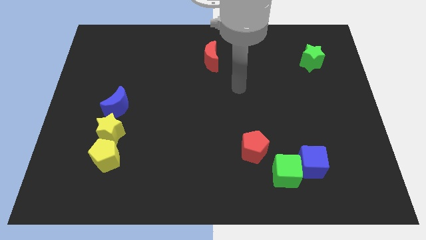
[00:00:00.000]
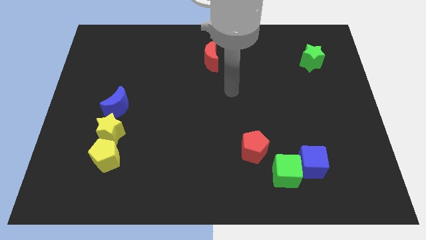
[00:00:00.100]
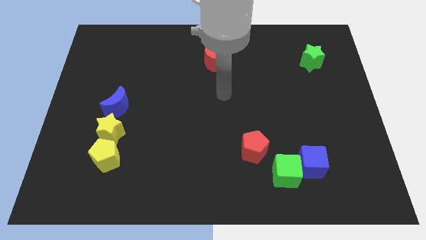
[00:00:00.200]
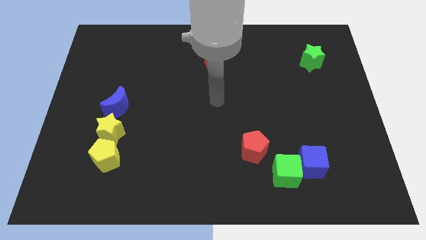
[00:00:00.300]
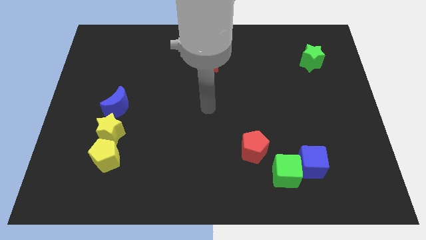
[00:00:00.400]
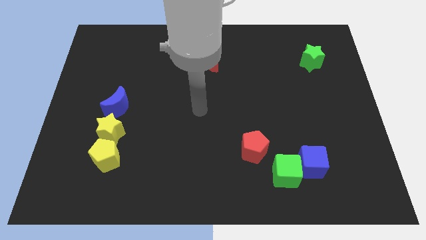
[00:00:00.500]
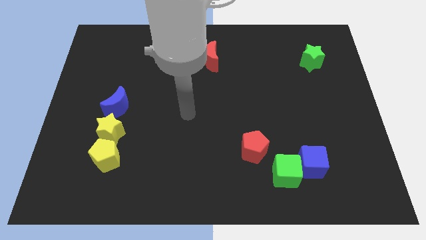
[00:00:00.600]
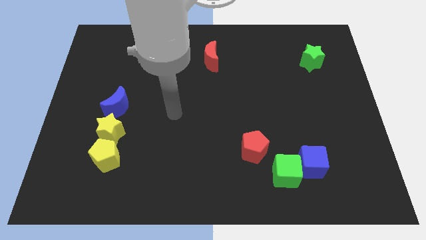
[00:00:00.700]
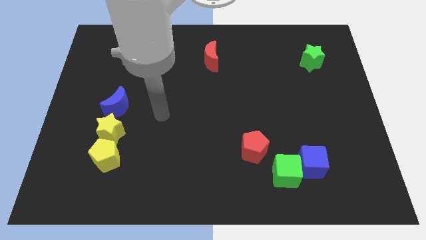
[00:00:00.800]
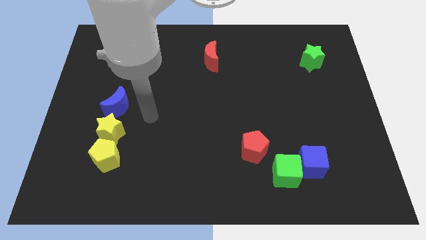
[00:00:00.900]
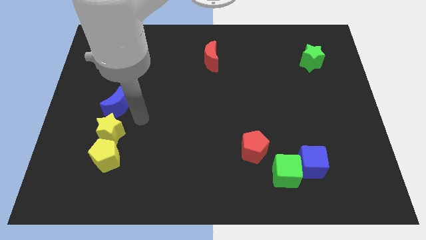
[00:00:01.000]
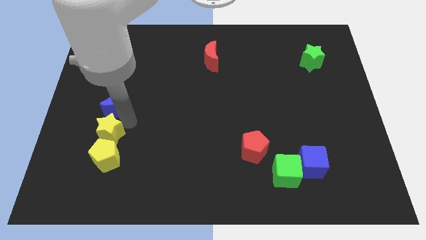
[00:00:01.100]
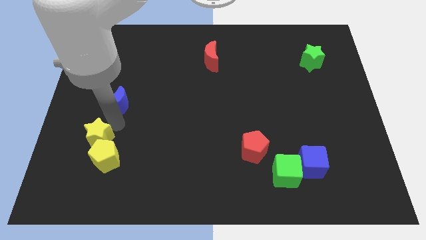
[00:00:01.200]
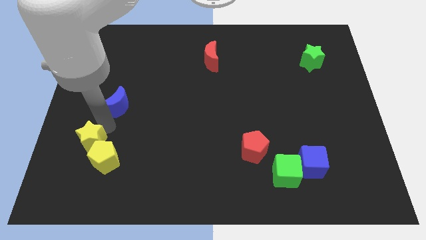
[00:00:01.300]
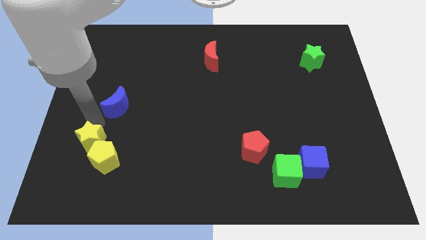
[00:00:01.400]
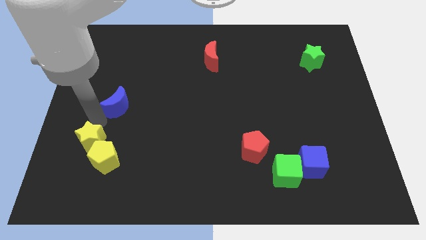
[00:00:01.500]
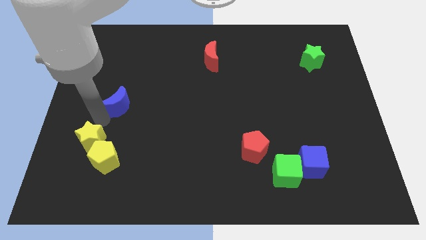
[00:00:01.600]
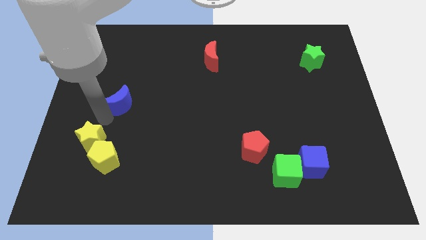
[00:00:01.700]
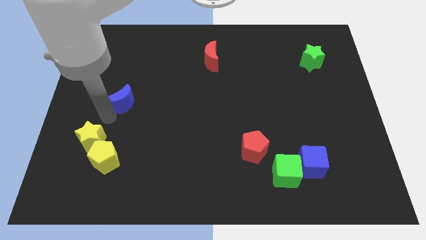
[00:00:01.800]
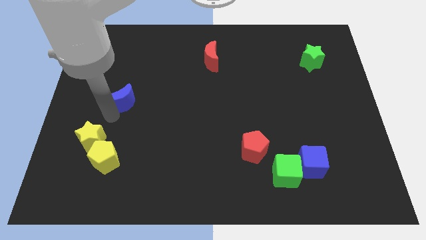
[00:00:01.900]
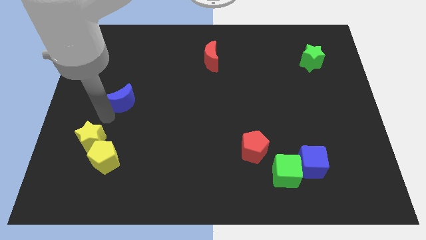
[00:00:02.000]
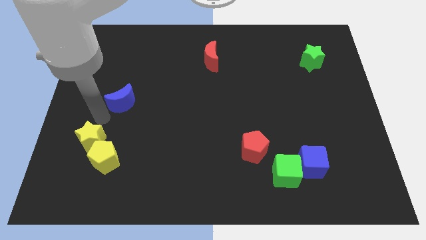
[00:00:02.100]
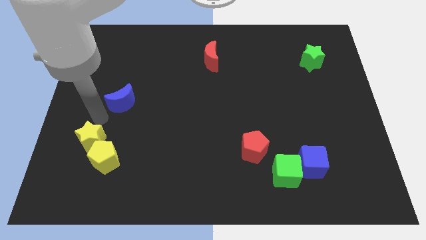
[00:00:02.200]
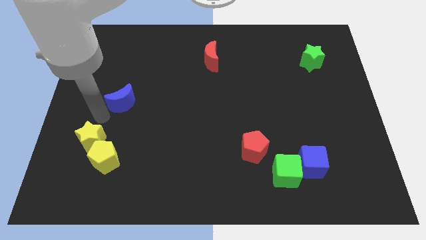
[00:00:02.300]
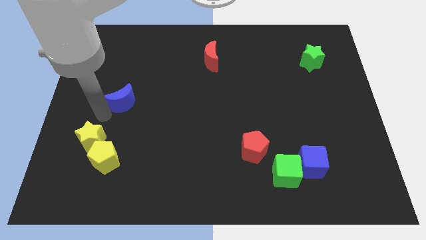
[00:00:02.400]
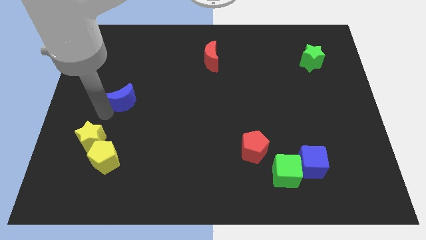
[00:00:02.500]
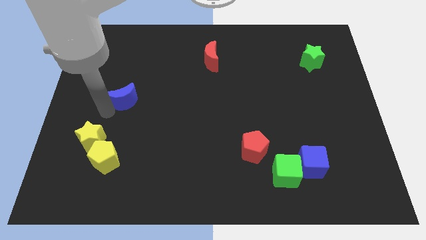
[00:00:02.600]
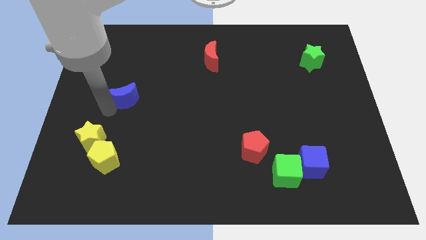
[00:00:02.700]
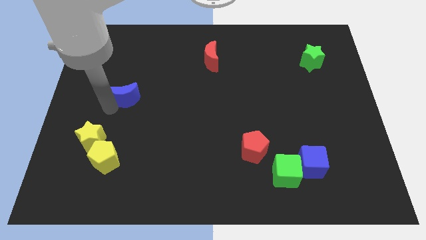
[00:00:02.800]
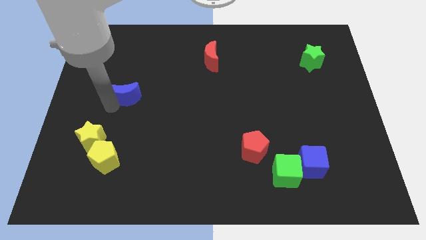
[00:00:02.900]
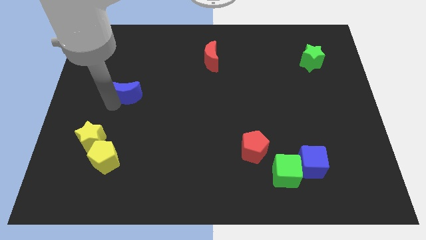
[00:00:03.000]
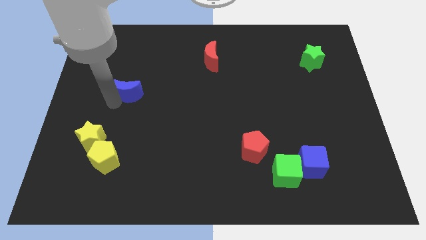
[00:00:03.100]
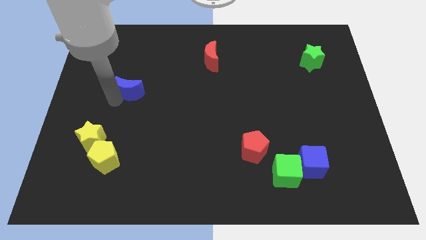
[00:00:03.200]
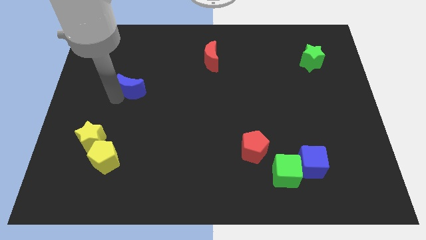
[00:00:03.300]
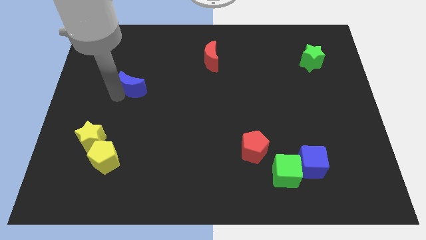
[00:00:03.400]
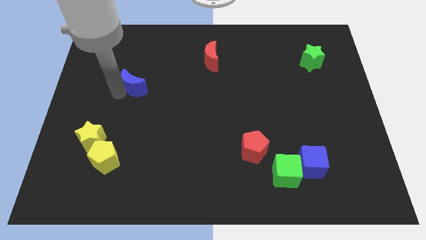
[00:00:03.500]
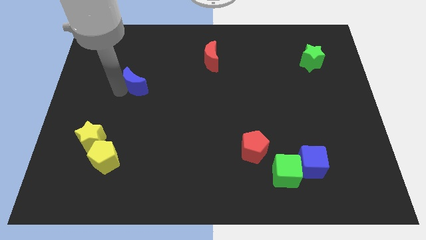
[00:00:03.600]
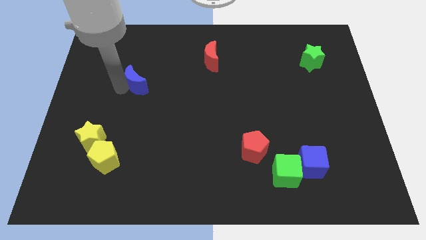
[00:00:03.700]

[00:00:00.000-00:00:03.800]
push the blue moon slightly diagonally up and right

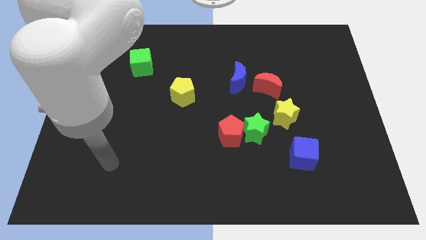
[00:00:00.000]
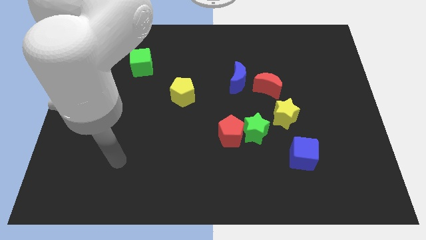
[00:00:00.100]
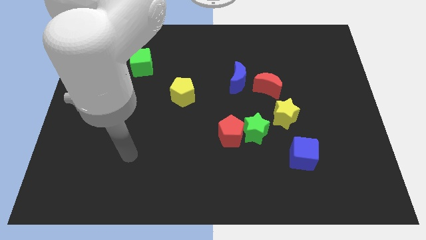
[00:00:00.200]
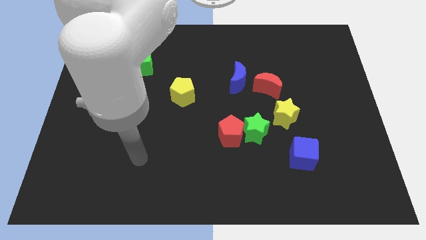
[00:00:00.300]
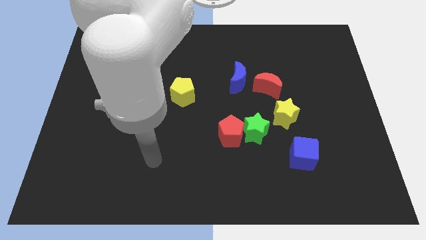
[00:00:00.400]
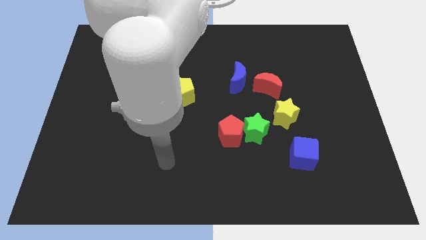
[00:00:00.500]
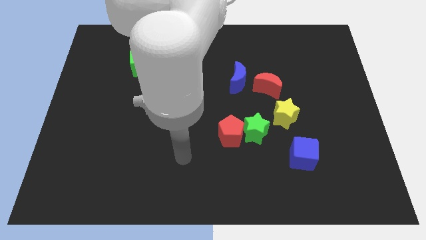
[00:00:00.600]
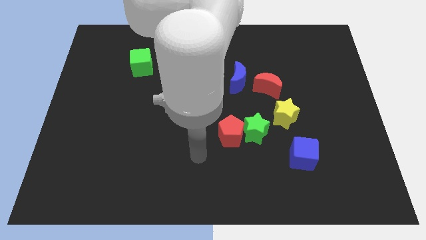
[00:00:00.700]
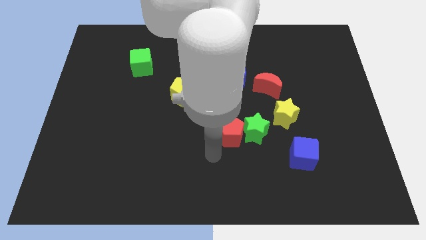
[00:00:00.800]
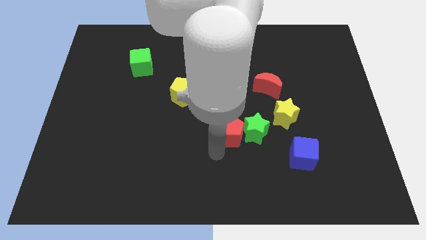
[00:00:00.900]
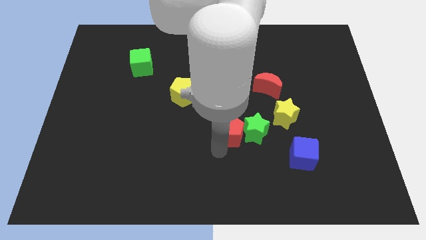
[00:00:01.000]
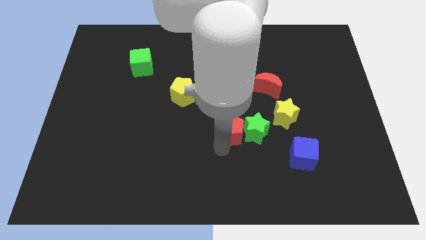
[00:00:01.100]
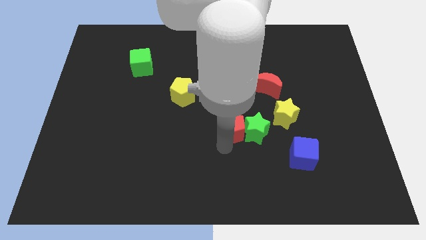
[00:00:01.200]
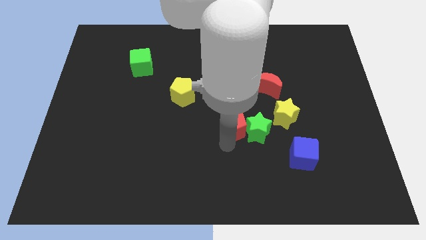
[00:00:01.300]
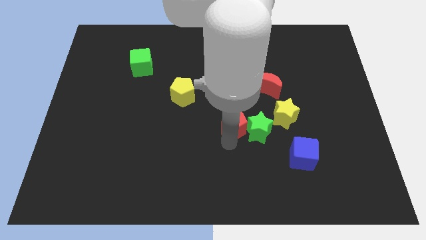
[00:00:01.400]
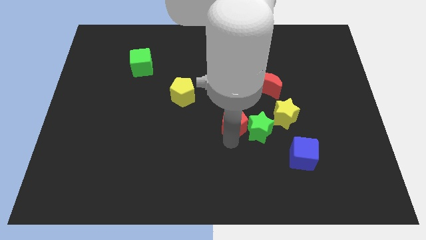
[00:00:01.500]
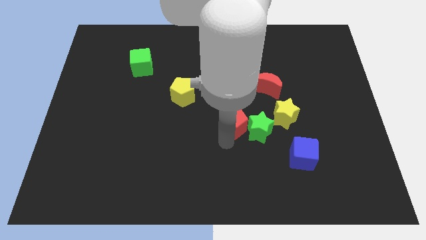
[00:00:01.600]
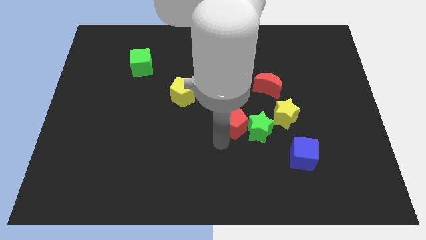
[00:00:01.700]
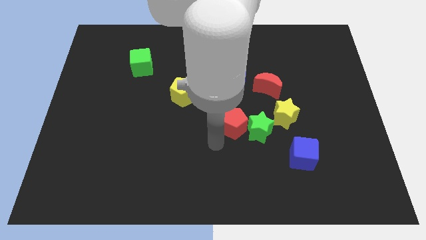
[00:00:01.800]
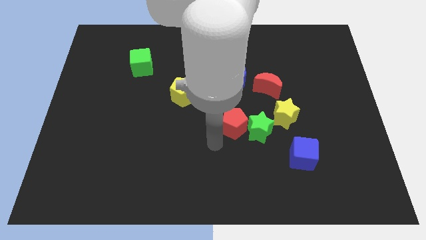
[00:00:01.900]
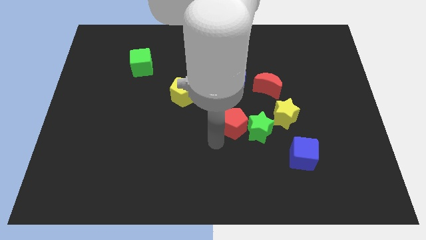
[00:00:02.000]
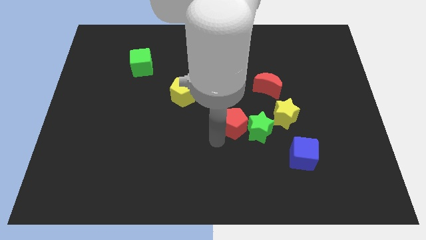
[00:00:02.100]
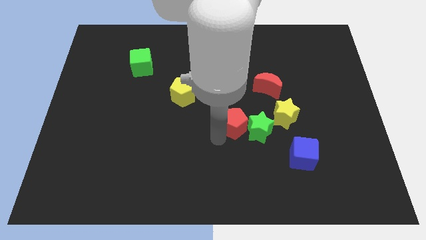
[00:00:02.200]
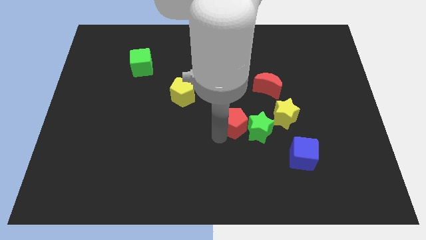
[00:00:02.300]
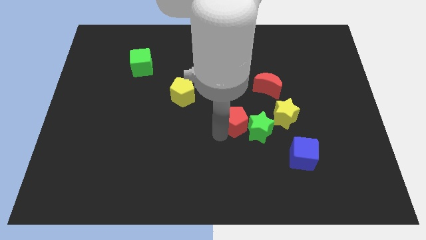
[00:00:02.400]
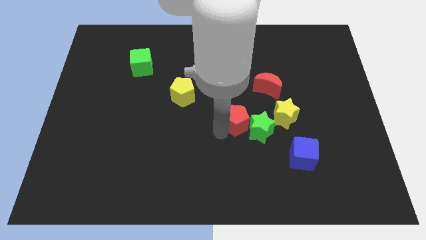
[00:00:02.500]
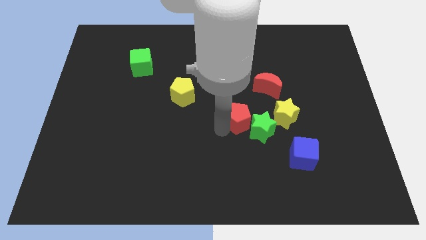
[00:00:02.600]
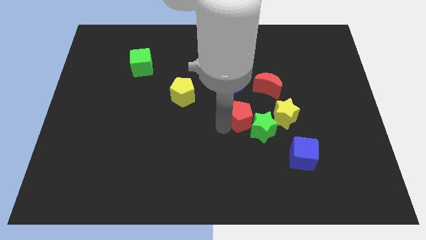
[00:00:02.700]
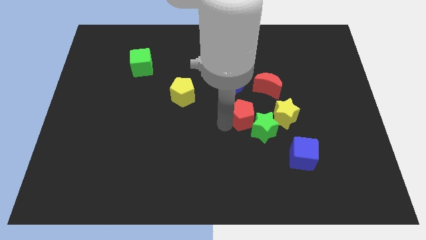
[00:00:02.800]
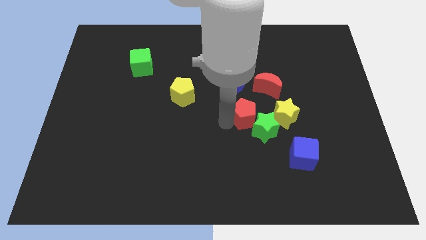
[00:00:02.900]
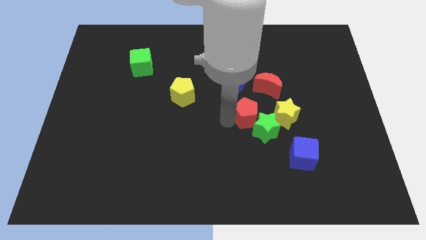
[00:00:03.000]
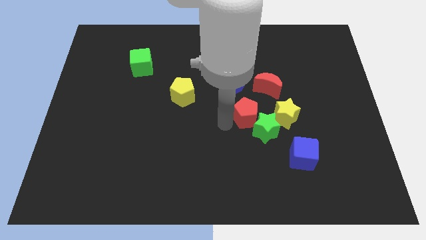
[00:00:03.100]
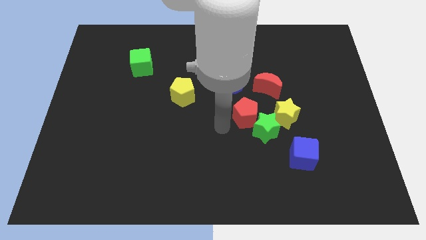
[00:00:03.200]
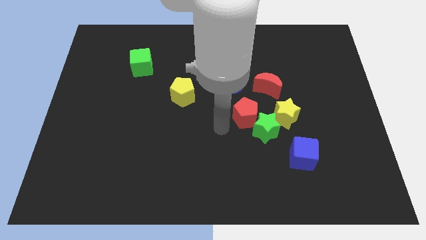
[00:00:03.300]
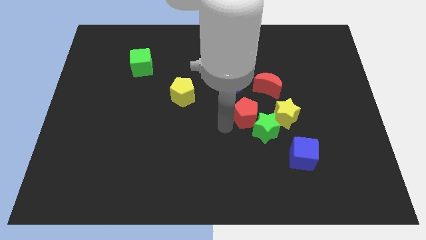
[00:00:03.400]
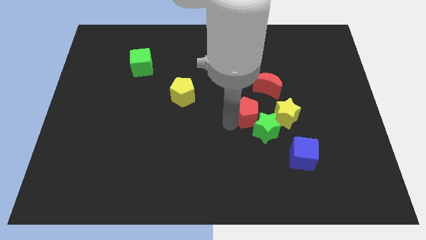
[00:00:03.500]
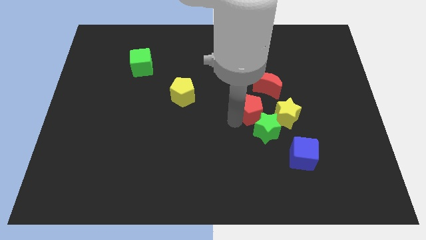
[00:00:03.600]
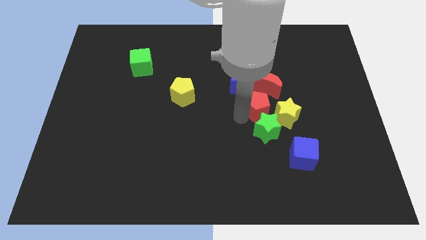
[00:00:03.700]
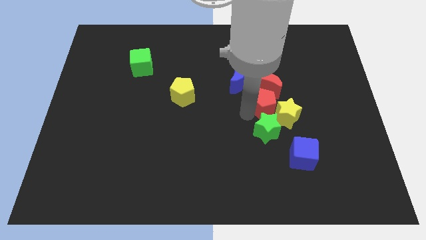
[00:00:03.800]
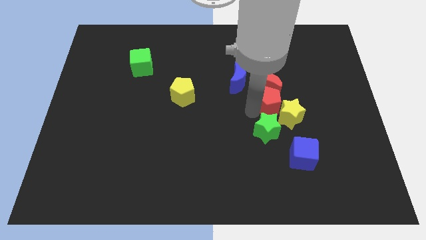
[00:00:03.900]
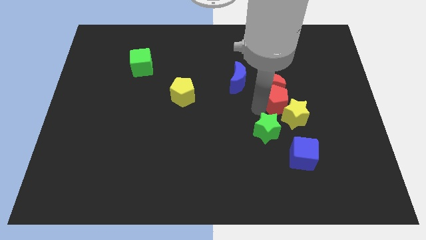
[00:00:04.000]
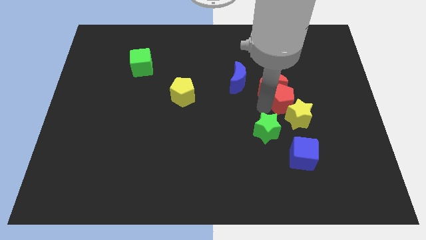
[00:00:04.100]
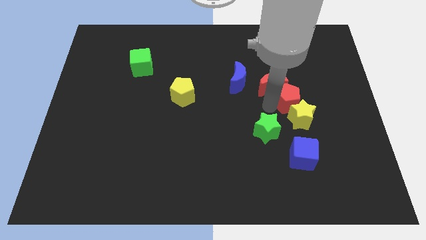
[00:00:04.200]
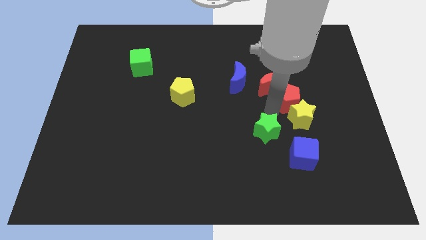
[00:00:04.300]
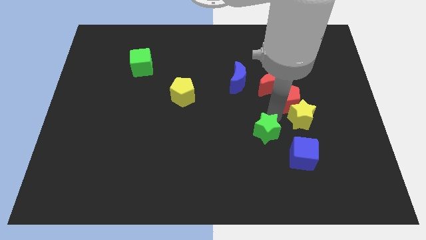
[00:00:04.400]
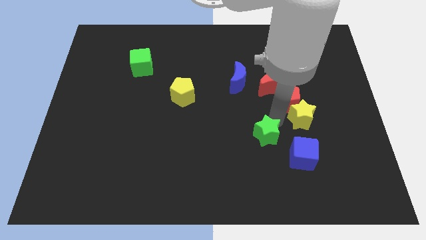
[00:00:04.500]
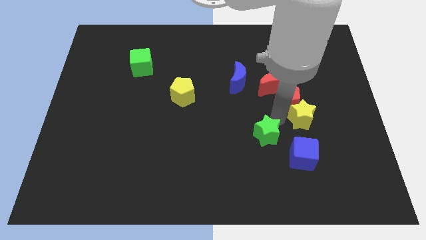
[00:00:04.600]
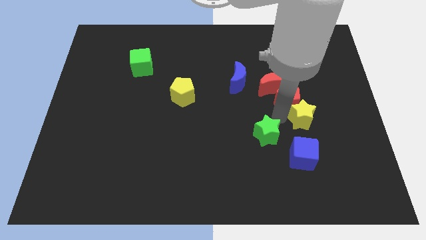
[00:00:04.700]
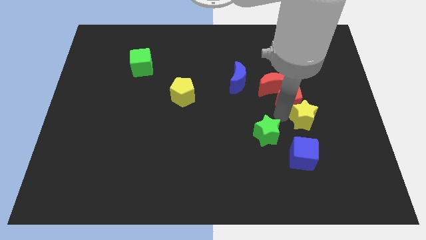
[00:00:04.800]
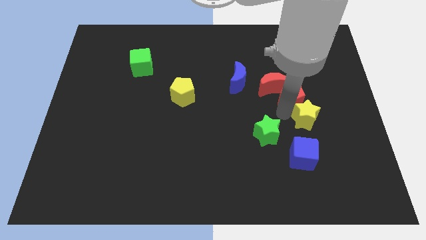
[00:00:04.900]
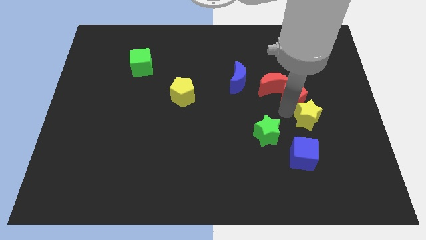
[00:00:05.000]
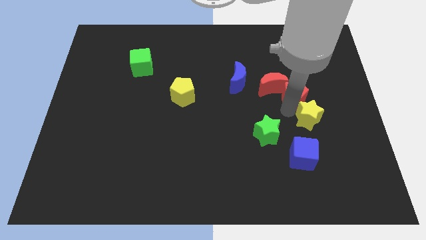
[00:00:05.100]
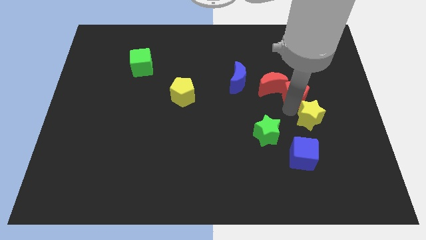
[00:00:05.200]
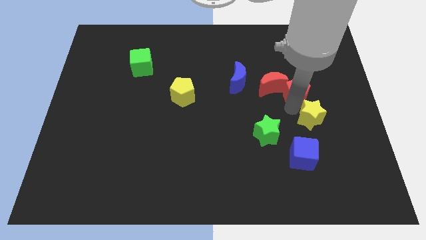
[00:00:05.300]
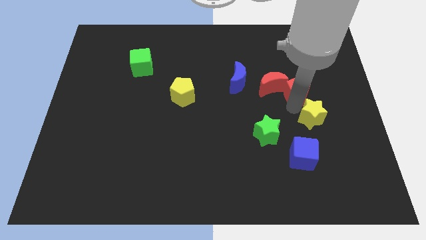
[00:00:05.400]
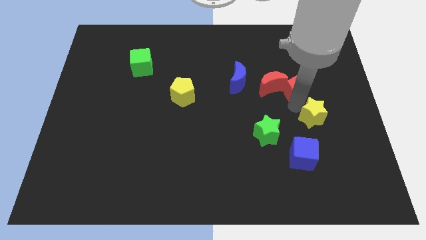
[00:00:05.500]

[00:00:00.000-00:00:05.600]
slide the red pentagon up and right diagonally
